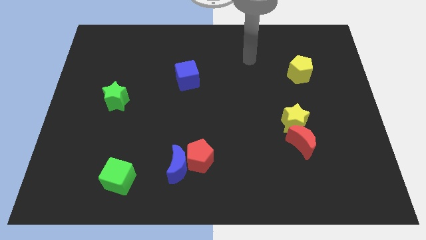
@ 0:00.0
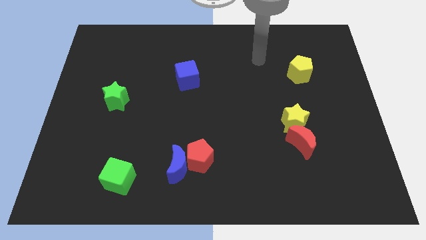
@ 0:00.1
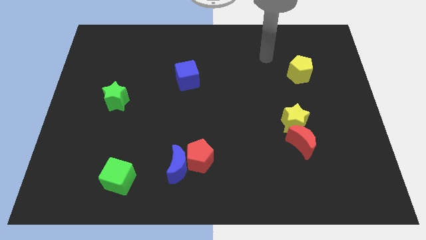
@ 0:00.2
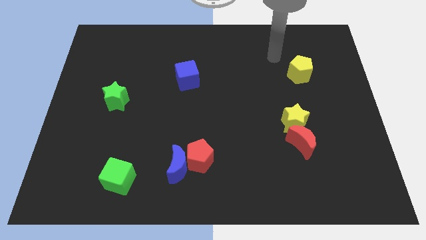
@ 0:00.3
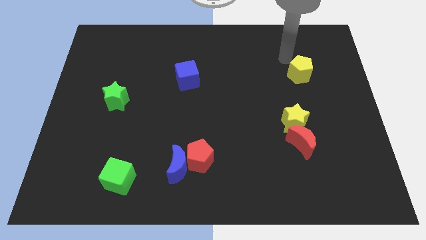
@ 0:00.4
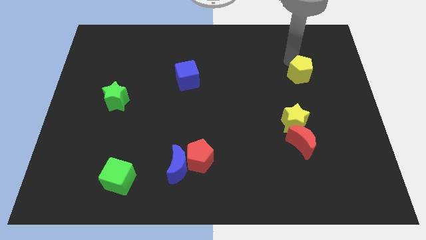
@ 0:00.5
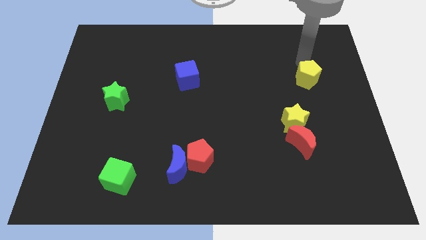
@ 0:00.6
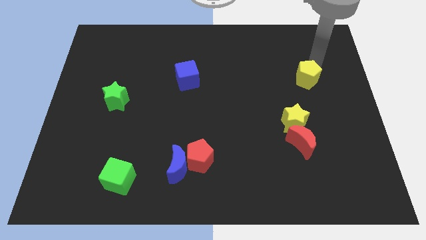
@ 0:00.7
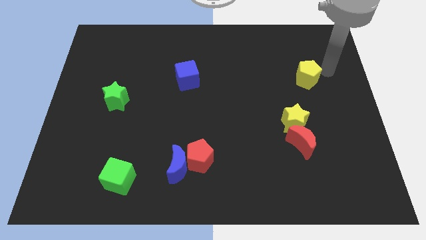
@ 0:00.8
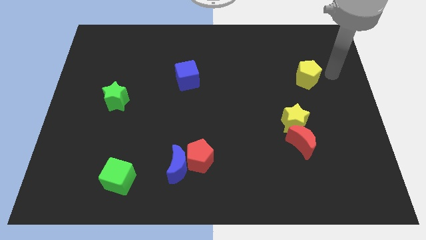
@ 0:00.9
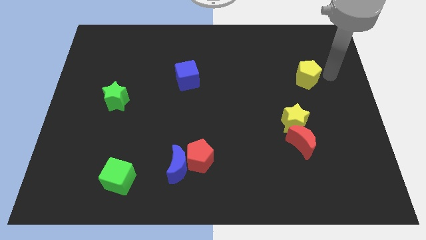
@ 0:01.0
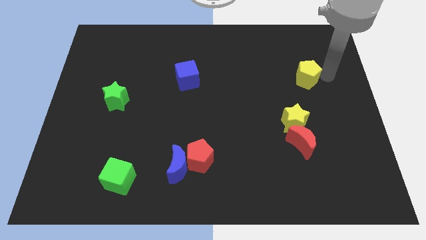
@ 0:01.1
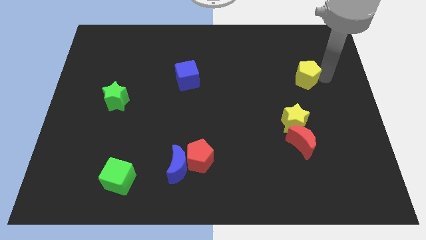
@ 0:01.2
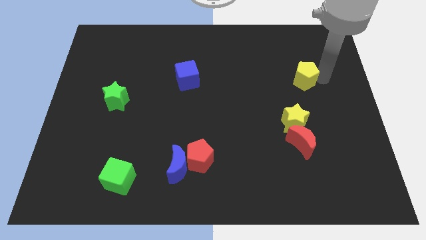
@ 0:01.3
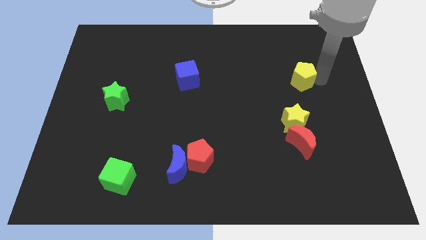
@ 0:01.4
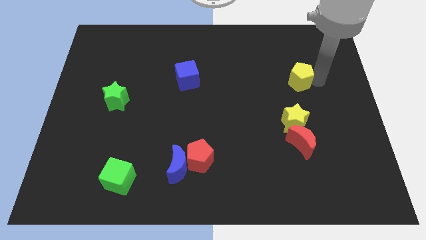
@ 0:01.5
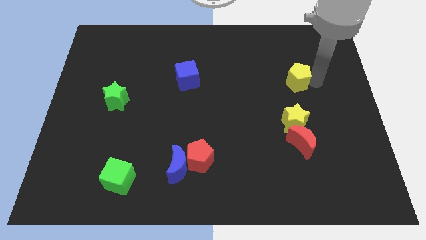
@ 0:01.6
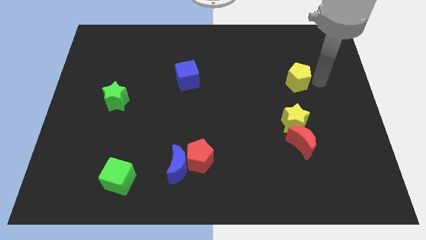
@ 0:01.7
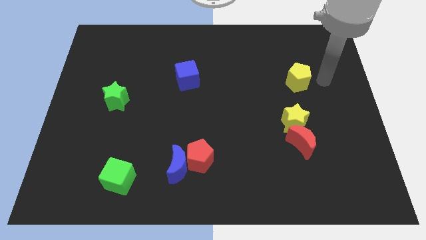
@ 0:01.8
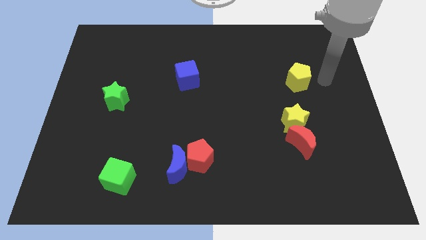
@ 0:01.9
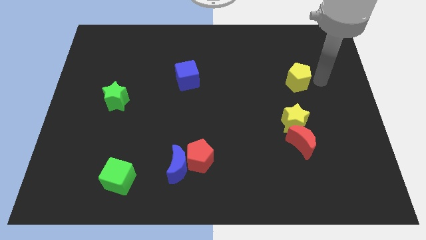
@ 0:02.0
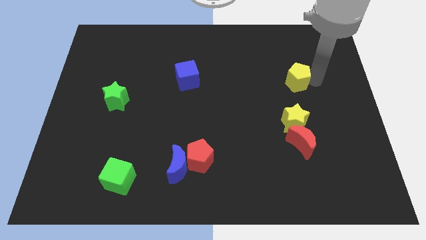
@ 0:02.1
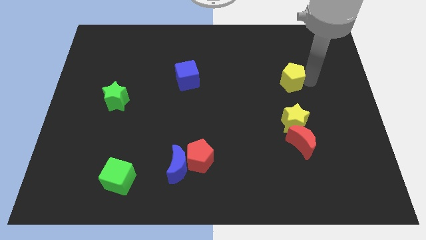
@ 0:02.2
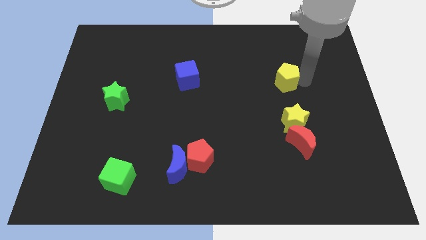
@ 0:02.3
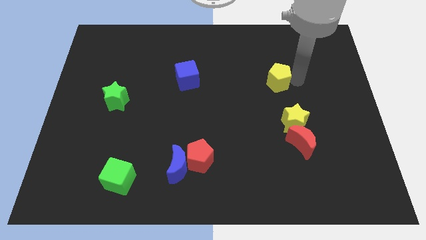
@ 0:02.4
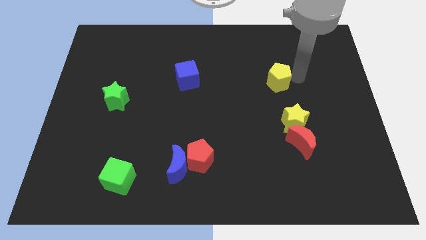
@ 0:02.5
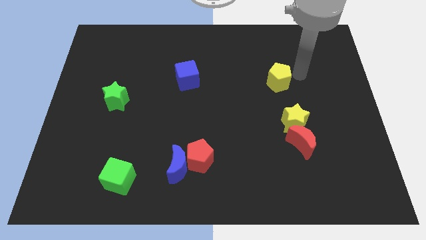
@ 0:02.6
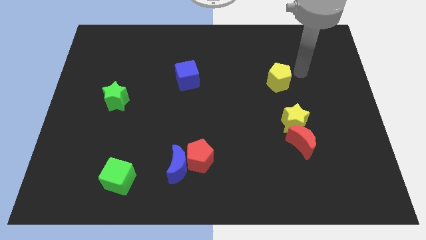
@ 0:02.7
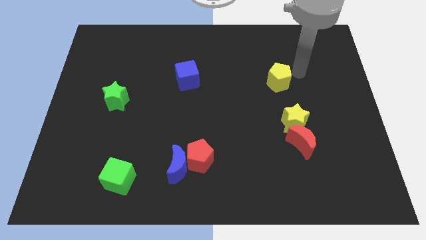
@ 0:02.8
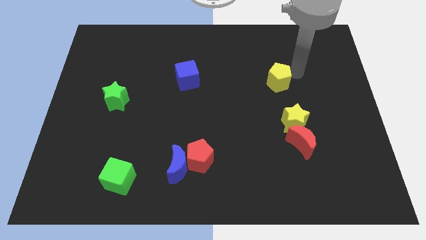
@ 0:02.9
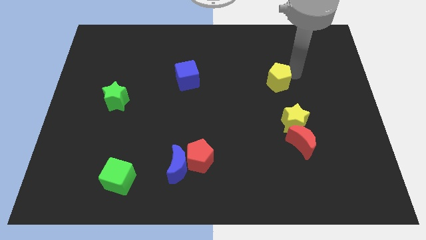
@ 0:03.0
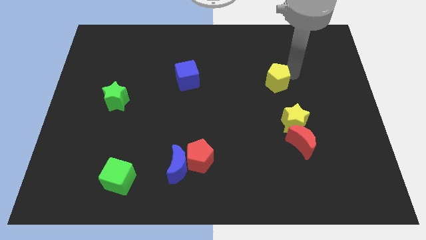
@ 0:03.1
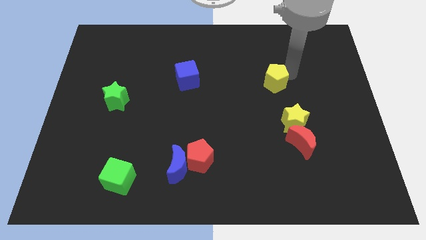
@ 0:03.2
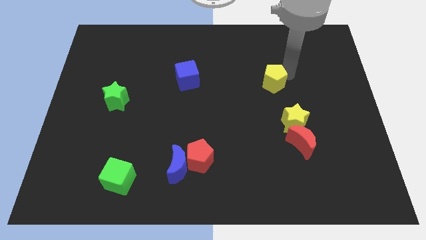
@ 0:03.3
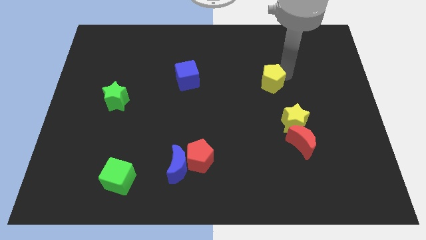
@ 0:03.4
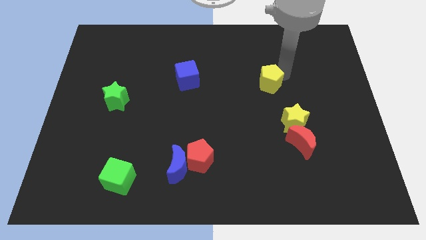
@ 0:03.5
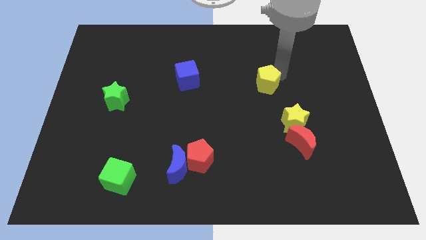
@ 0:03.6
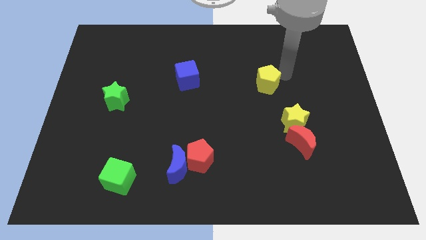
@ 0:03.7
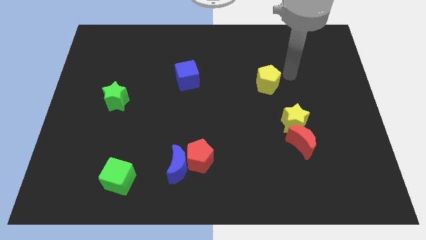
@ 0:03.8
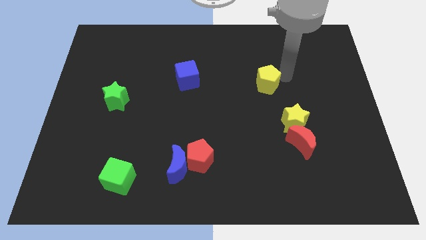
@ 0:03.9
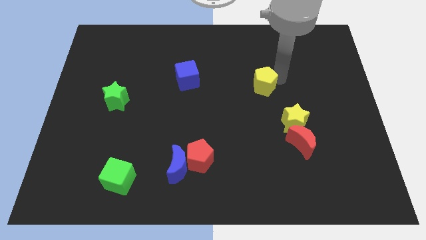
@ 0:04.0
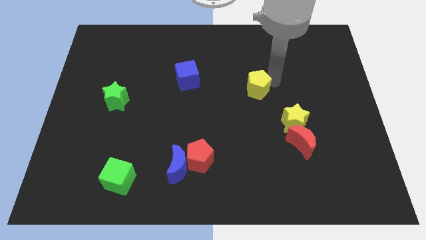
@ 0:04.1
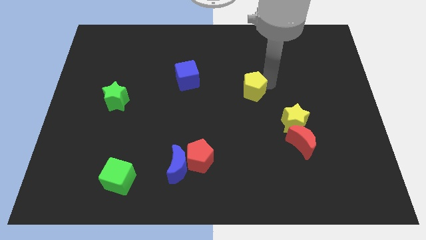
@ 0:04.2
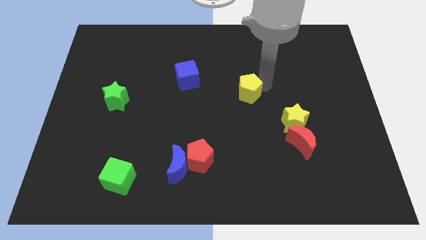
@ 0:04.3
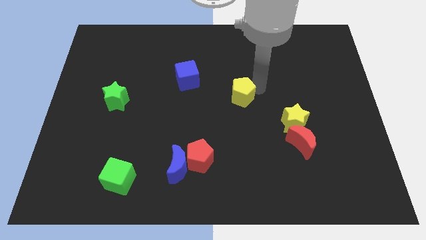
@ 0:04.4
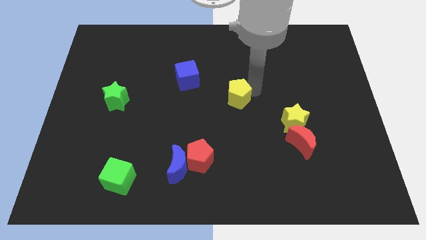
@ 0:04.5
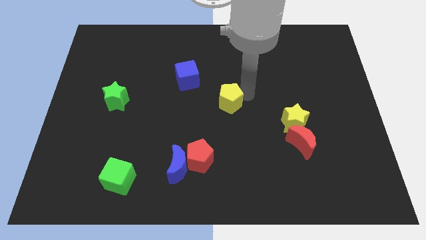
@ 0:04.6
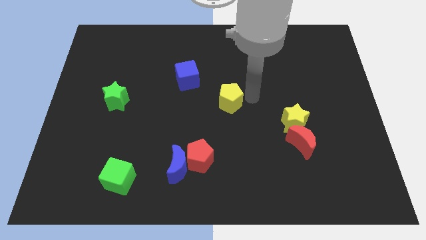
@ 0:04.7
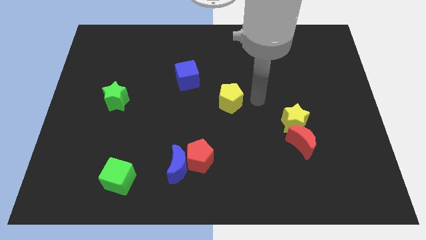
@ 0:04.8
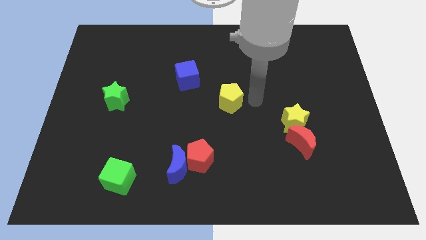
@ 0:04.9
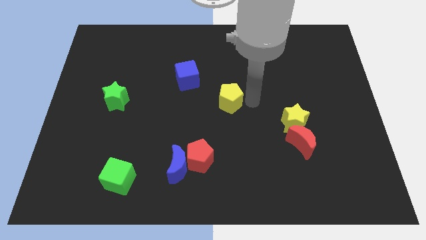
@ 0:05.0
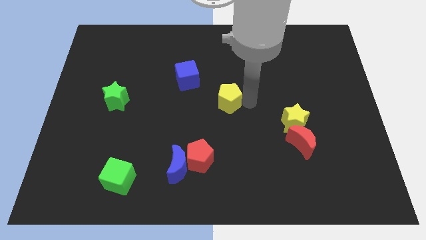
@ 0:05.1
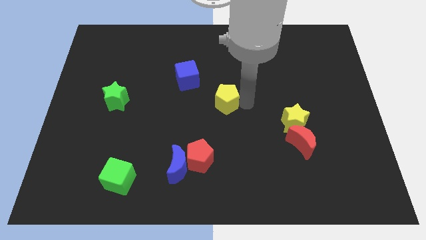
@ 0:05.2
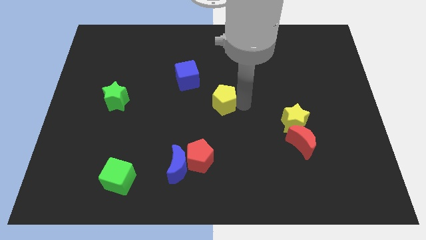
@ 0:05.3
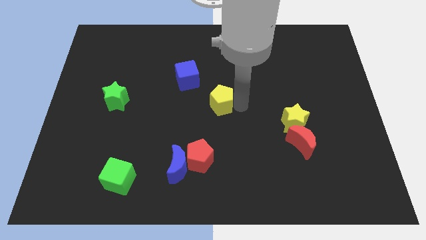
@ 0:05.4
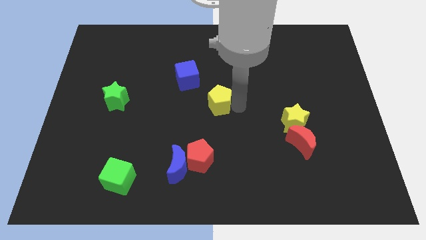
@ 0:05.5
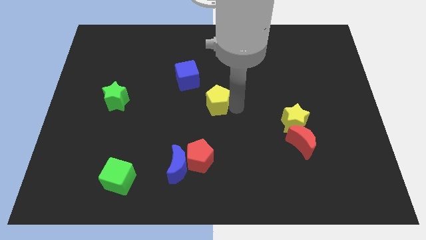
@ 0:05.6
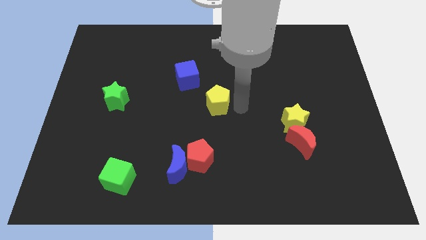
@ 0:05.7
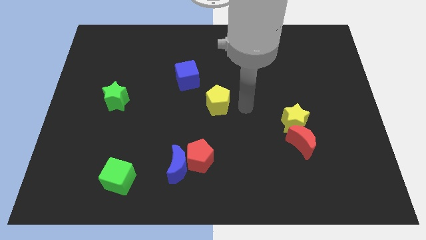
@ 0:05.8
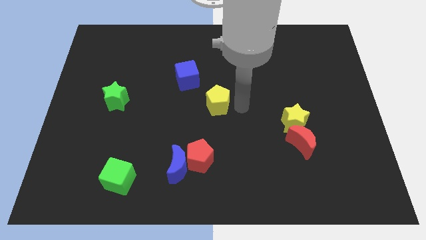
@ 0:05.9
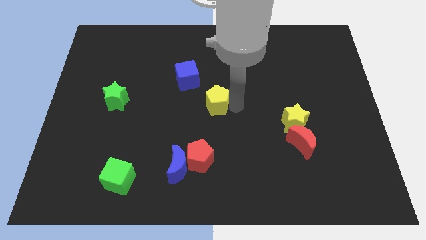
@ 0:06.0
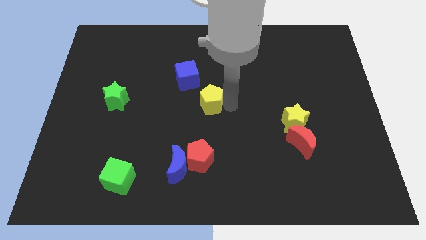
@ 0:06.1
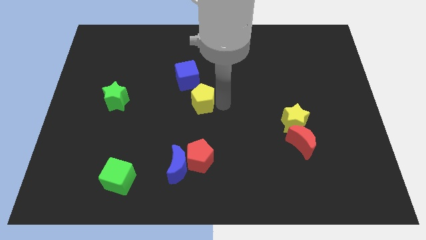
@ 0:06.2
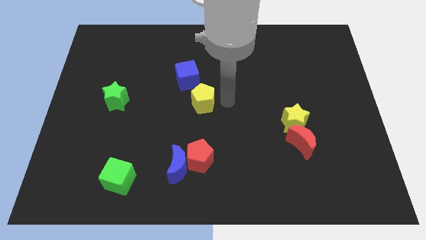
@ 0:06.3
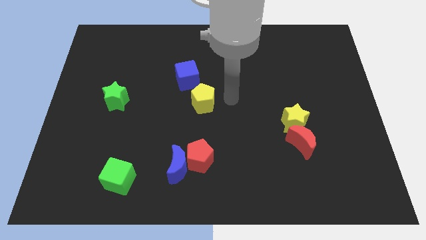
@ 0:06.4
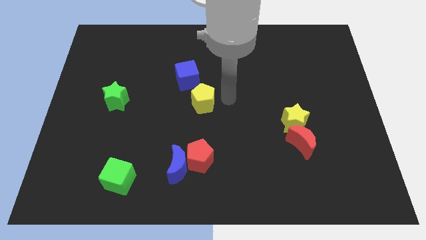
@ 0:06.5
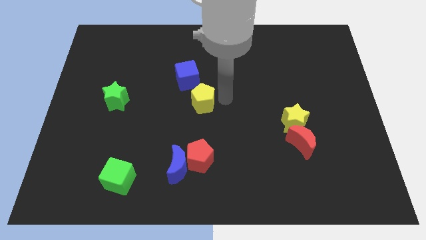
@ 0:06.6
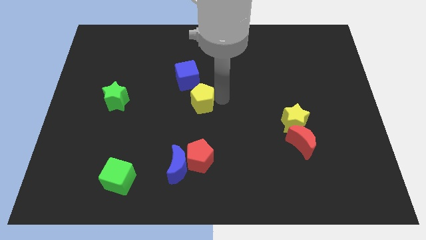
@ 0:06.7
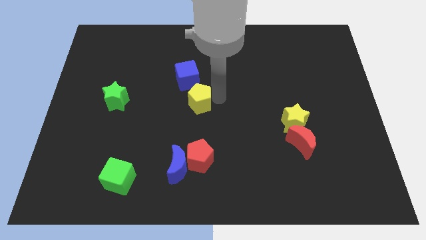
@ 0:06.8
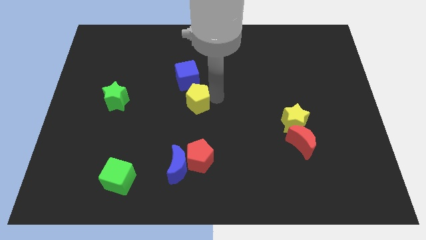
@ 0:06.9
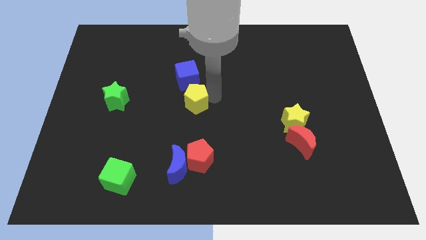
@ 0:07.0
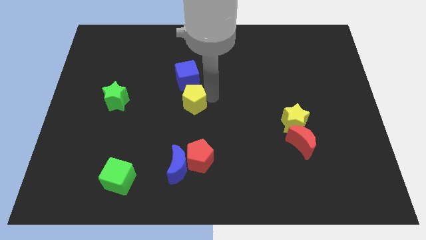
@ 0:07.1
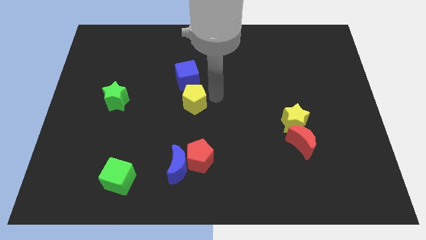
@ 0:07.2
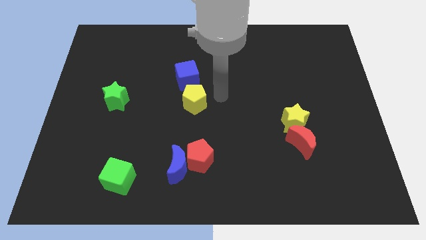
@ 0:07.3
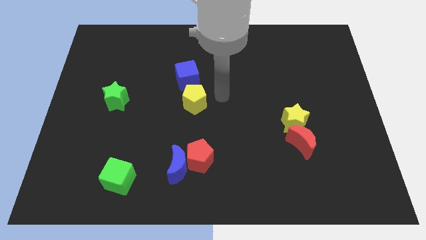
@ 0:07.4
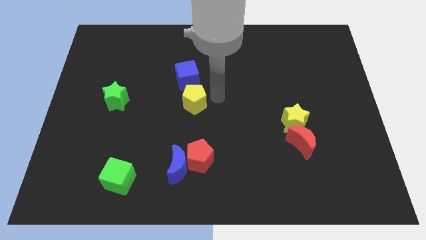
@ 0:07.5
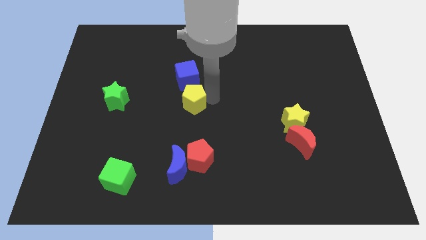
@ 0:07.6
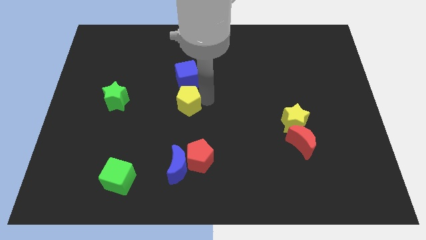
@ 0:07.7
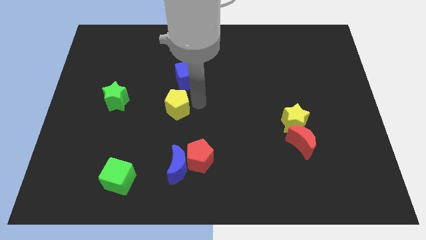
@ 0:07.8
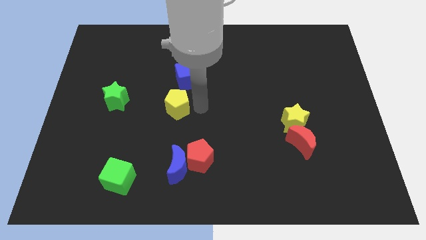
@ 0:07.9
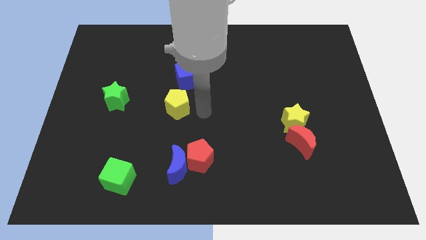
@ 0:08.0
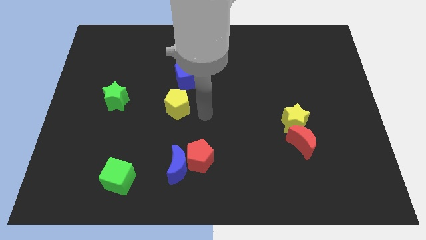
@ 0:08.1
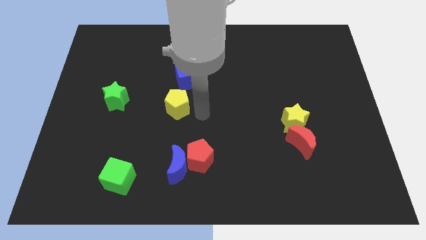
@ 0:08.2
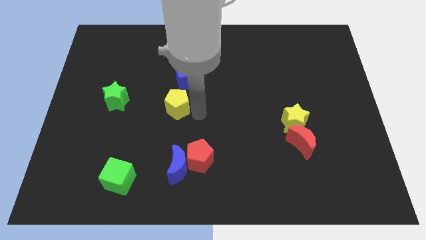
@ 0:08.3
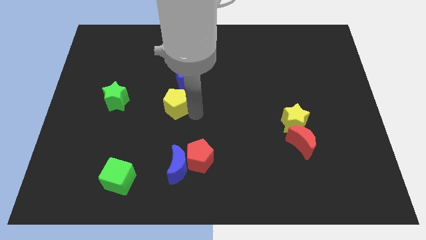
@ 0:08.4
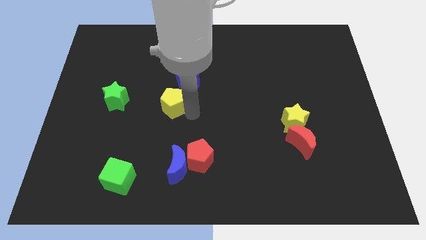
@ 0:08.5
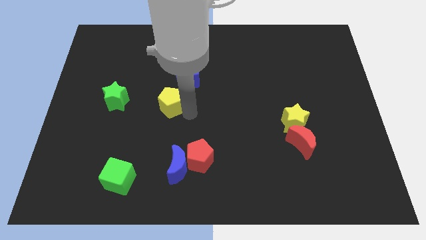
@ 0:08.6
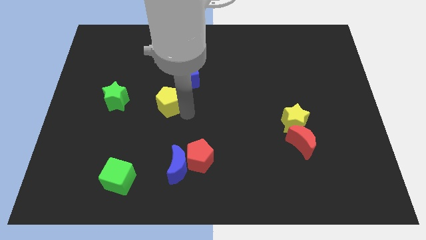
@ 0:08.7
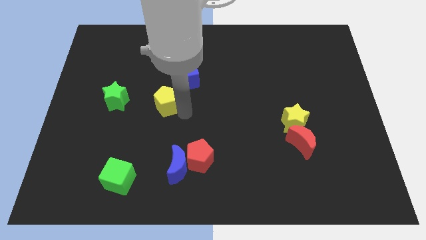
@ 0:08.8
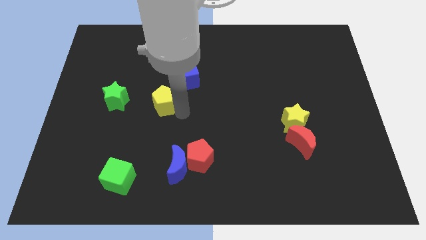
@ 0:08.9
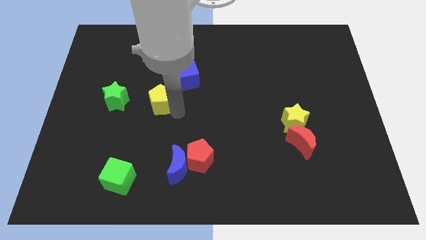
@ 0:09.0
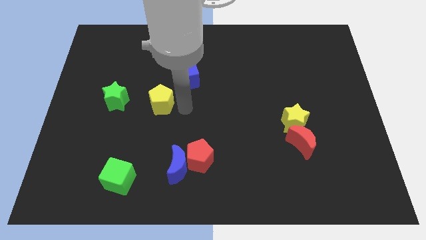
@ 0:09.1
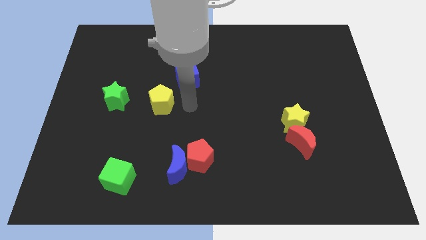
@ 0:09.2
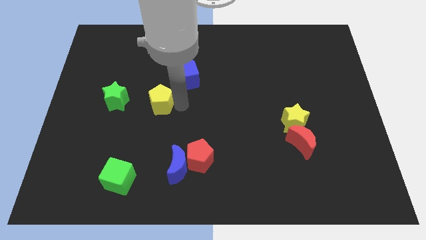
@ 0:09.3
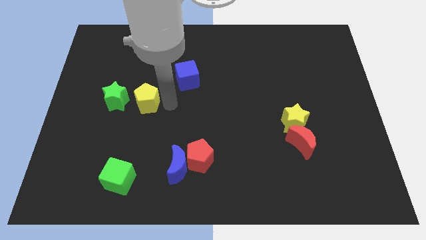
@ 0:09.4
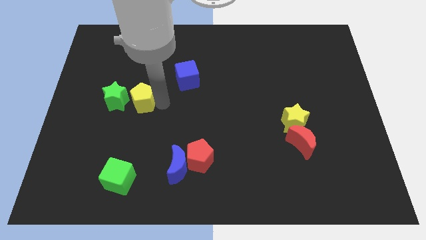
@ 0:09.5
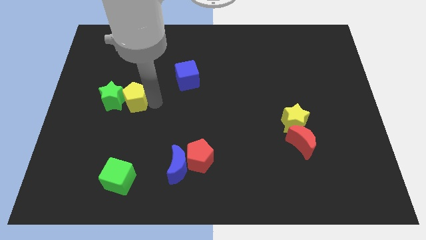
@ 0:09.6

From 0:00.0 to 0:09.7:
put the yellow pentagon close to the green star
